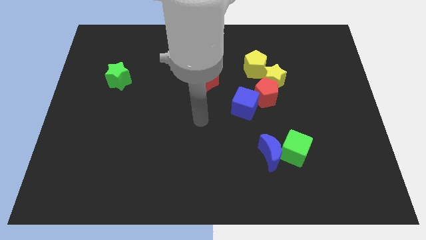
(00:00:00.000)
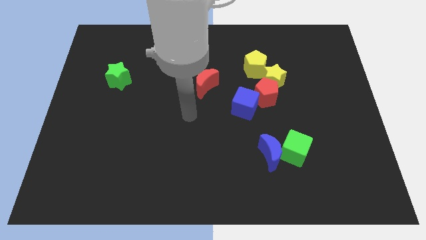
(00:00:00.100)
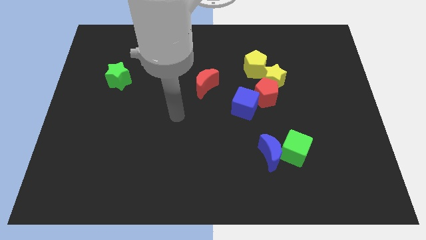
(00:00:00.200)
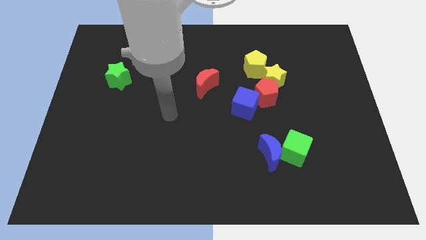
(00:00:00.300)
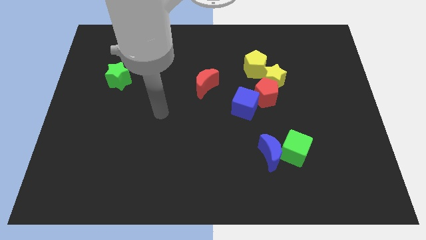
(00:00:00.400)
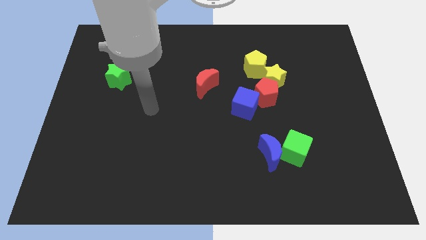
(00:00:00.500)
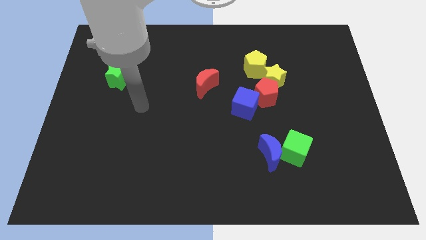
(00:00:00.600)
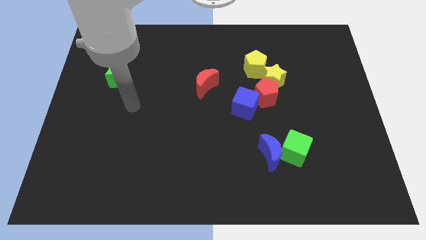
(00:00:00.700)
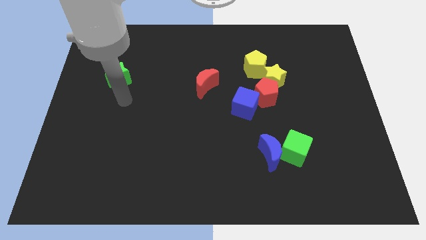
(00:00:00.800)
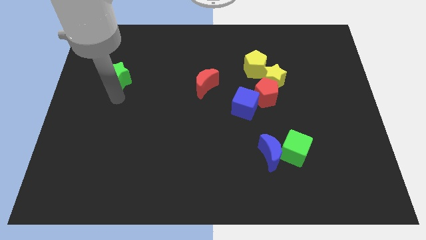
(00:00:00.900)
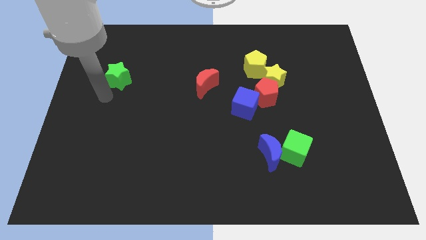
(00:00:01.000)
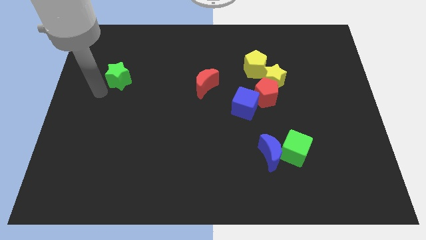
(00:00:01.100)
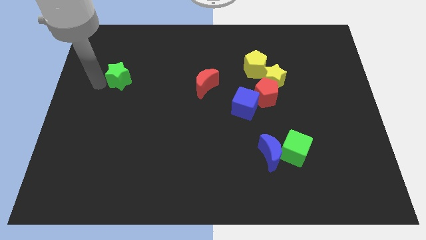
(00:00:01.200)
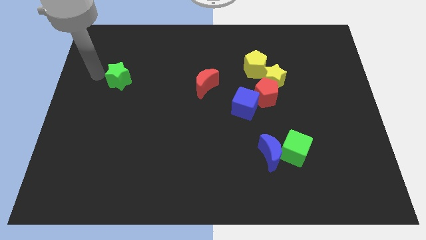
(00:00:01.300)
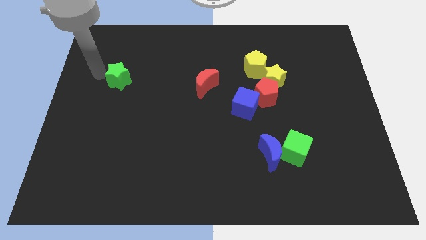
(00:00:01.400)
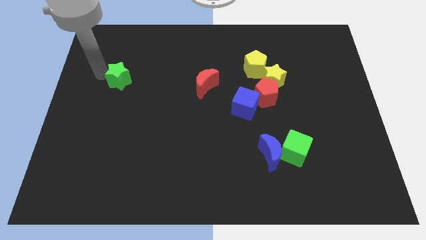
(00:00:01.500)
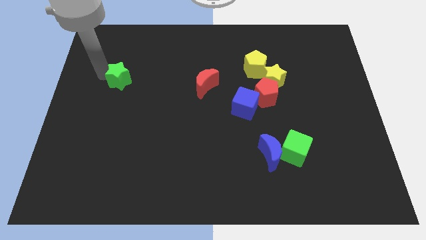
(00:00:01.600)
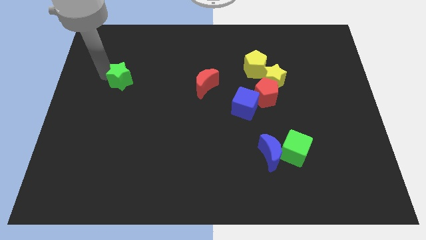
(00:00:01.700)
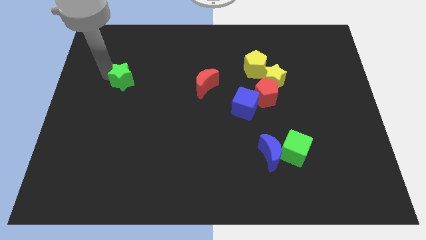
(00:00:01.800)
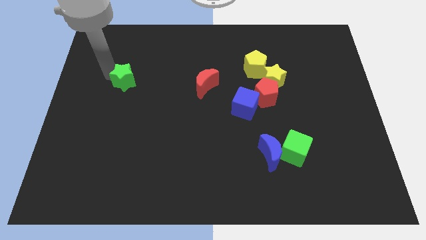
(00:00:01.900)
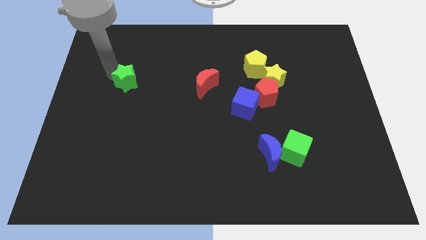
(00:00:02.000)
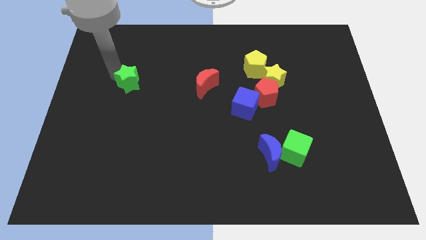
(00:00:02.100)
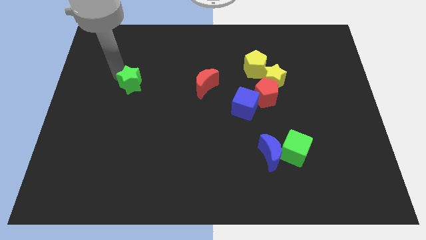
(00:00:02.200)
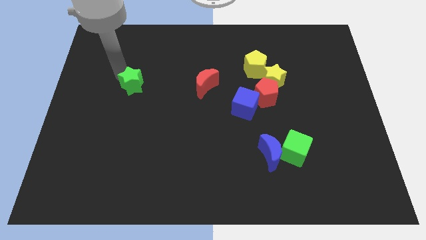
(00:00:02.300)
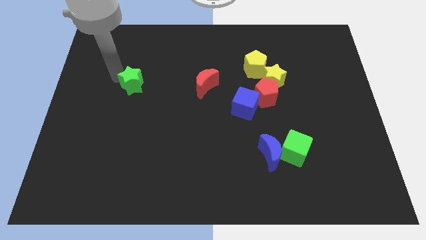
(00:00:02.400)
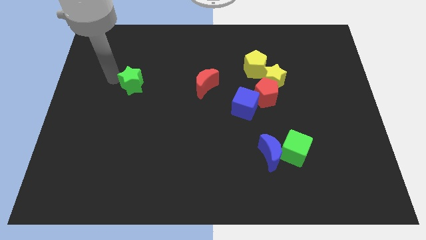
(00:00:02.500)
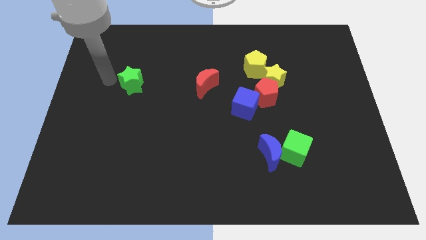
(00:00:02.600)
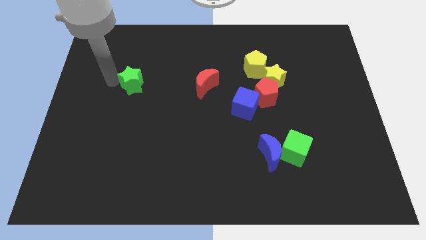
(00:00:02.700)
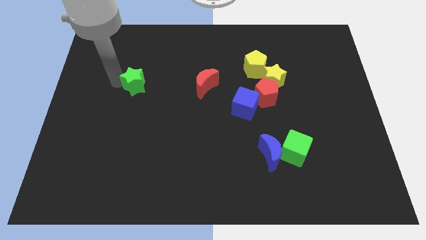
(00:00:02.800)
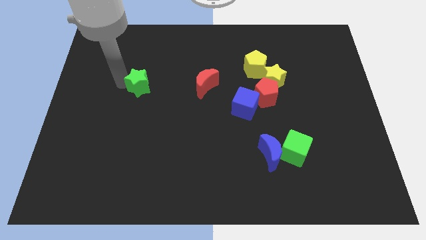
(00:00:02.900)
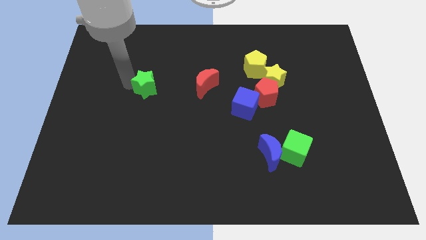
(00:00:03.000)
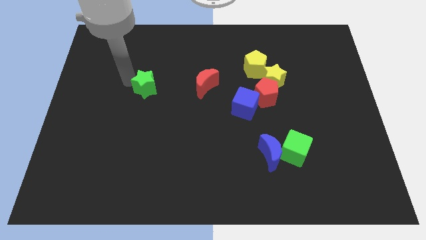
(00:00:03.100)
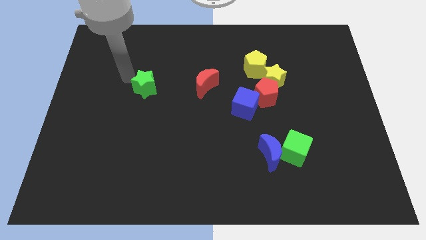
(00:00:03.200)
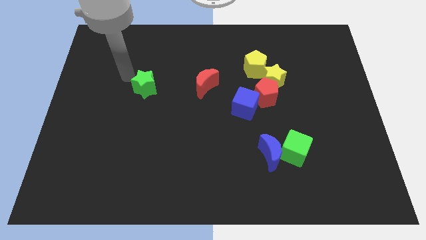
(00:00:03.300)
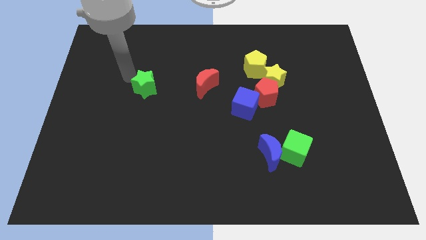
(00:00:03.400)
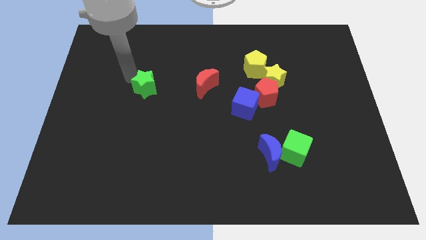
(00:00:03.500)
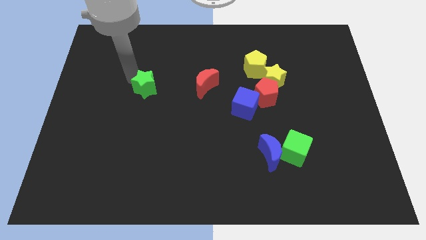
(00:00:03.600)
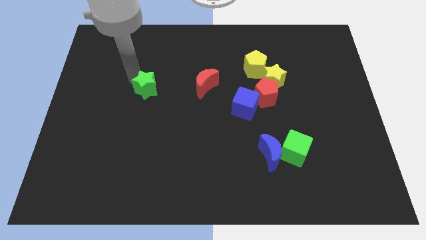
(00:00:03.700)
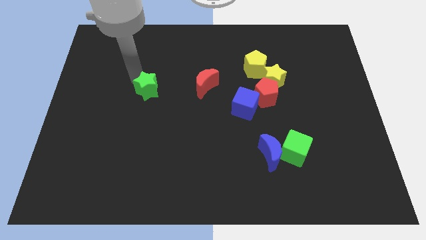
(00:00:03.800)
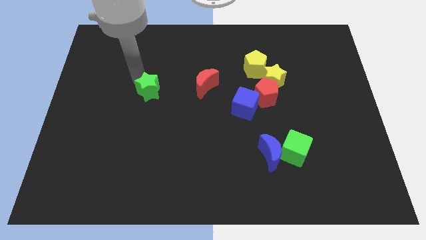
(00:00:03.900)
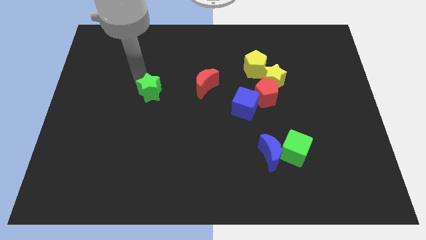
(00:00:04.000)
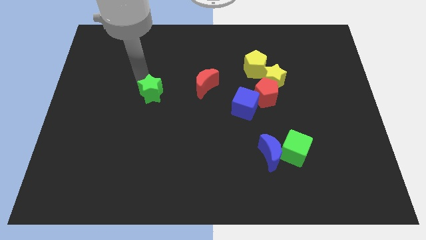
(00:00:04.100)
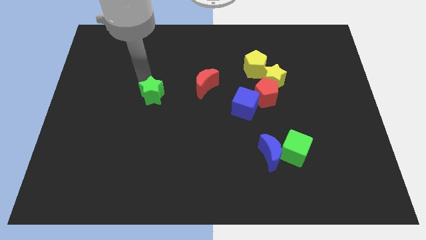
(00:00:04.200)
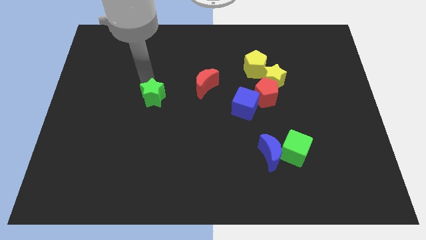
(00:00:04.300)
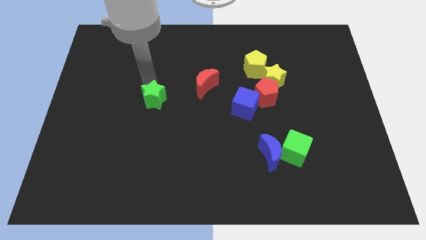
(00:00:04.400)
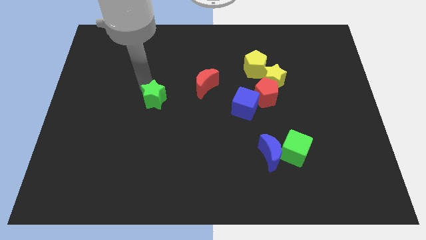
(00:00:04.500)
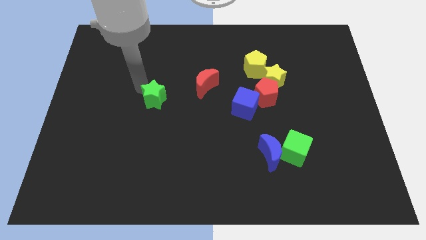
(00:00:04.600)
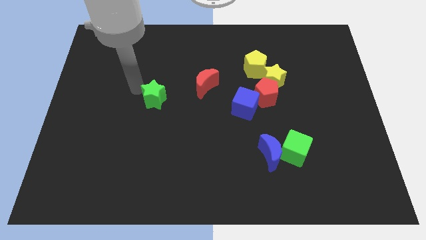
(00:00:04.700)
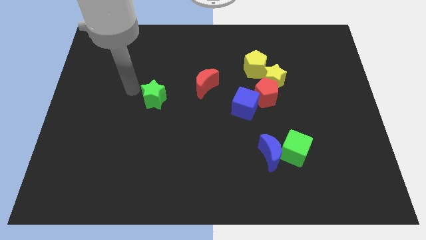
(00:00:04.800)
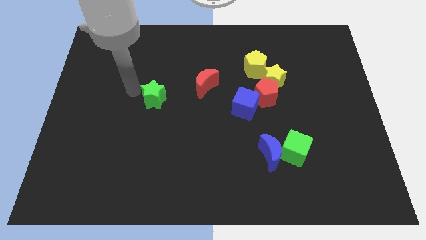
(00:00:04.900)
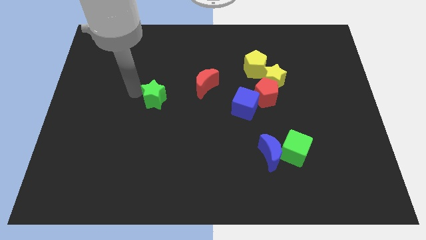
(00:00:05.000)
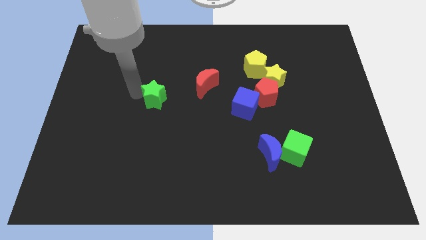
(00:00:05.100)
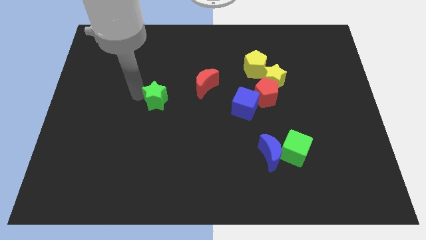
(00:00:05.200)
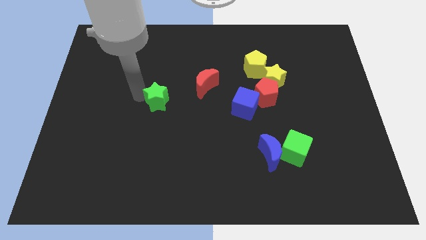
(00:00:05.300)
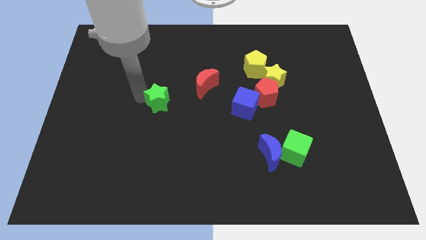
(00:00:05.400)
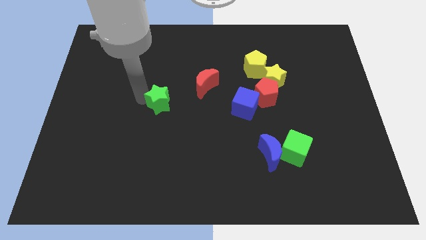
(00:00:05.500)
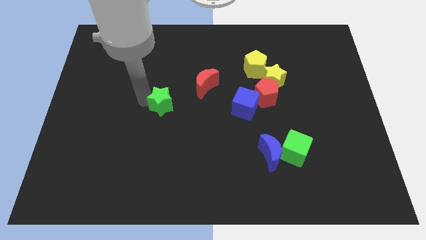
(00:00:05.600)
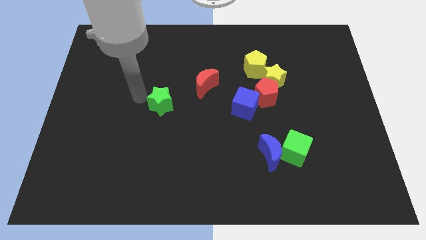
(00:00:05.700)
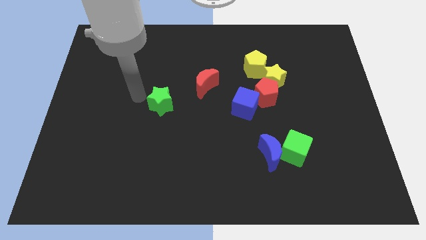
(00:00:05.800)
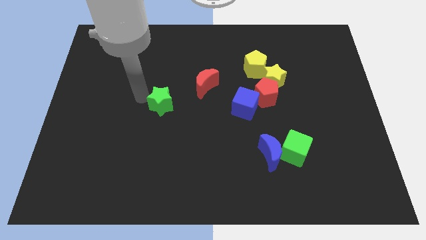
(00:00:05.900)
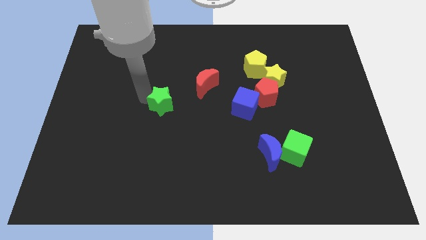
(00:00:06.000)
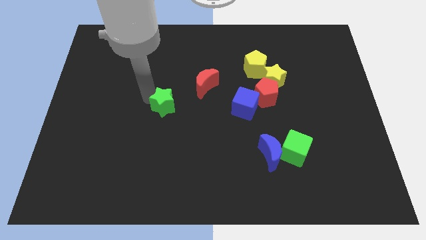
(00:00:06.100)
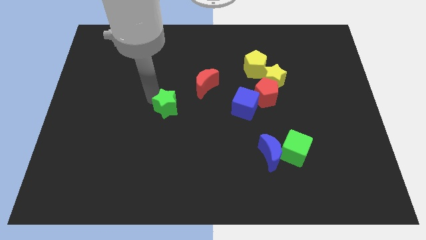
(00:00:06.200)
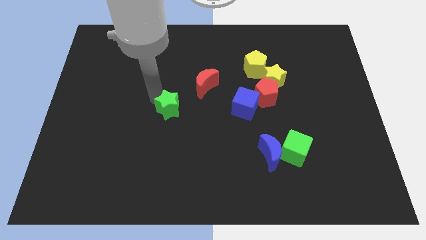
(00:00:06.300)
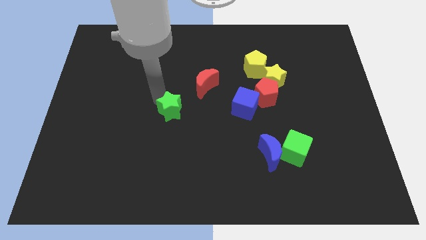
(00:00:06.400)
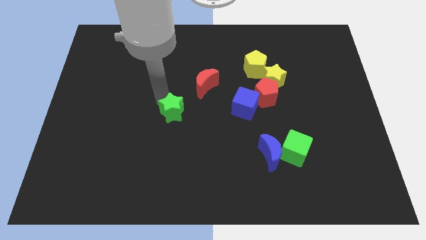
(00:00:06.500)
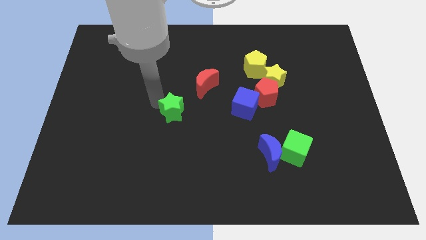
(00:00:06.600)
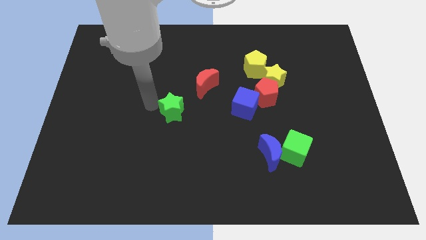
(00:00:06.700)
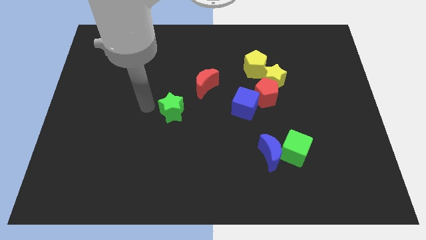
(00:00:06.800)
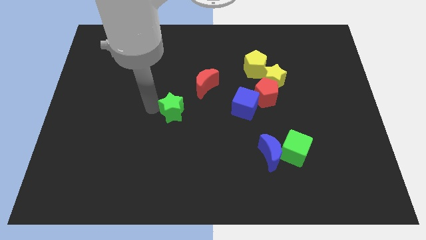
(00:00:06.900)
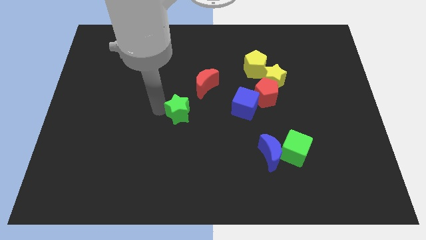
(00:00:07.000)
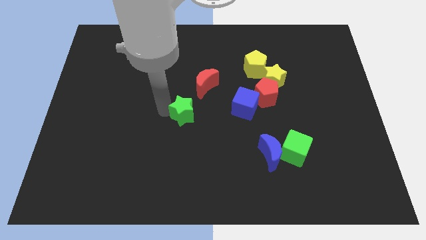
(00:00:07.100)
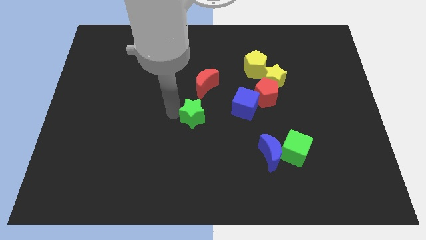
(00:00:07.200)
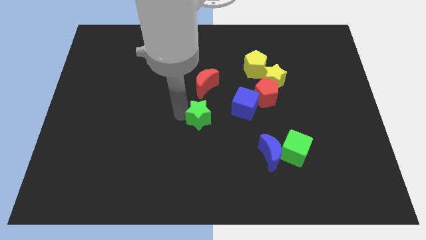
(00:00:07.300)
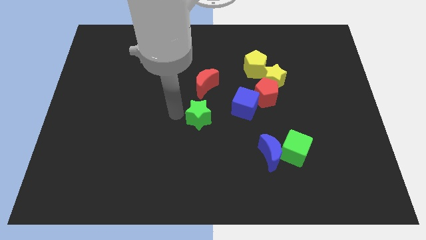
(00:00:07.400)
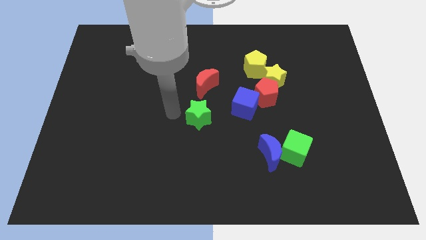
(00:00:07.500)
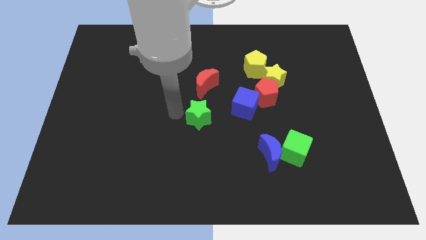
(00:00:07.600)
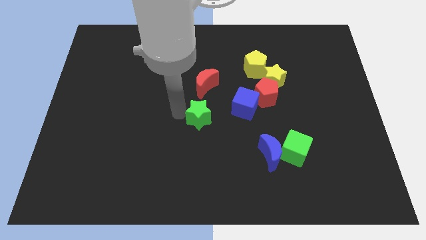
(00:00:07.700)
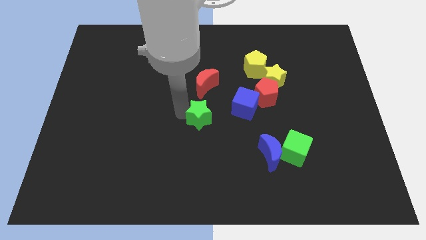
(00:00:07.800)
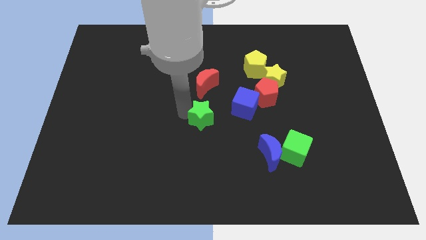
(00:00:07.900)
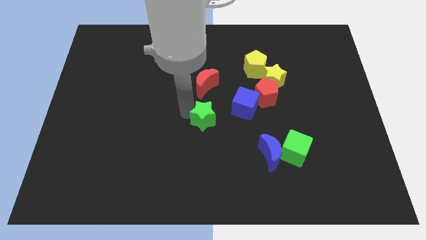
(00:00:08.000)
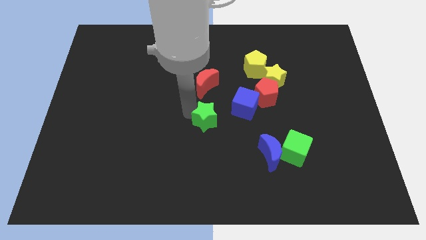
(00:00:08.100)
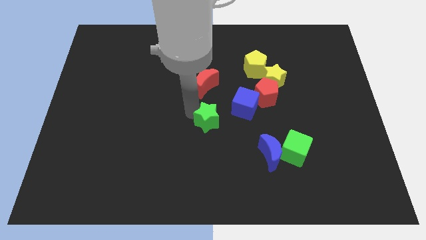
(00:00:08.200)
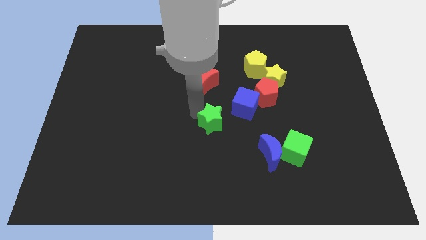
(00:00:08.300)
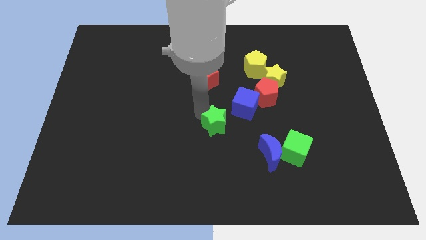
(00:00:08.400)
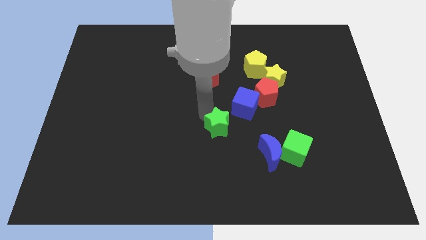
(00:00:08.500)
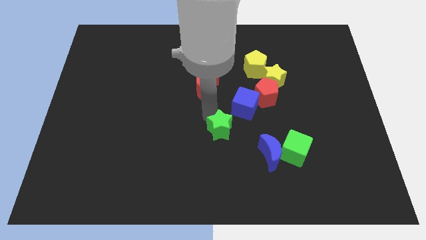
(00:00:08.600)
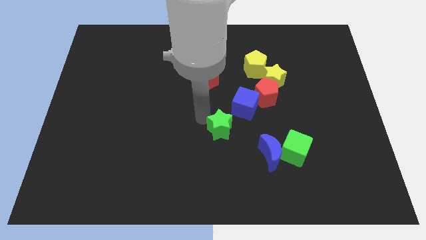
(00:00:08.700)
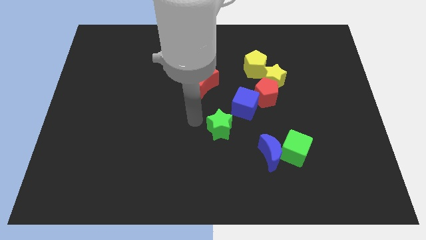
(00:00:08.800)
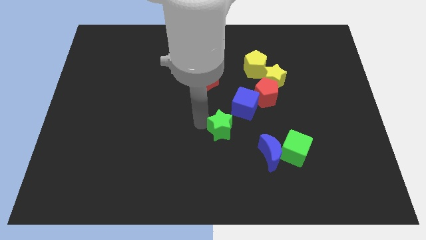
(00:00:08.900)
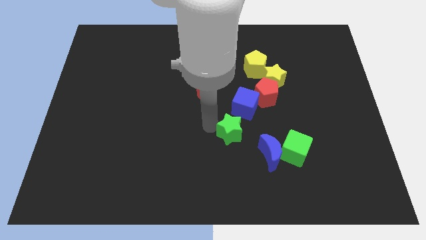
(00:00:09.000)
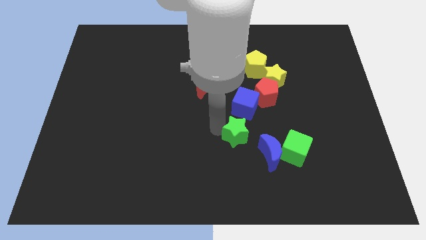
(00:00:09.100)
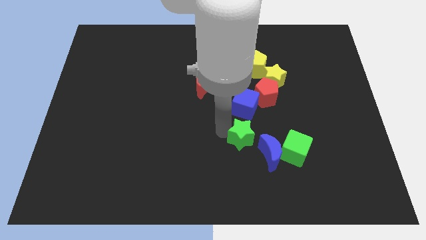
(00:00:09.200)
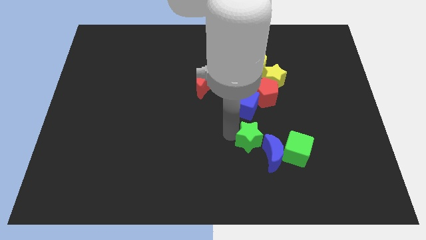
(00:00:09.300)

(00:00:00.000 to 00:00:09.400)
move the green star towards the blue moon
